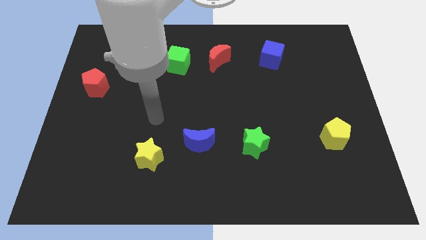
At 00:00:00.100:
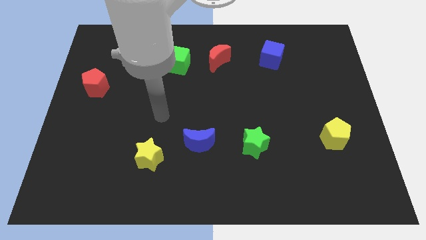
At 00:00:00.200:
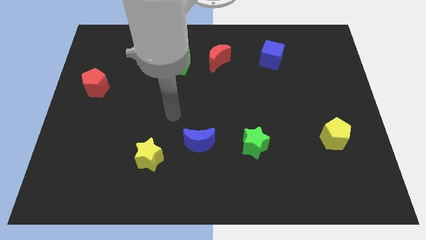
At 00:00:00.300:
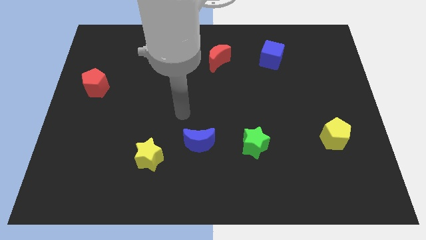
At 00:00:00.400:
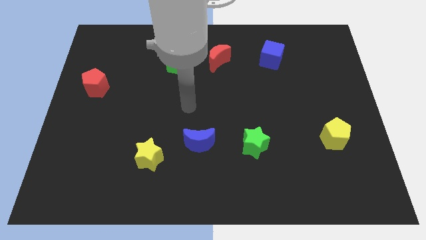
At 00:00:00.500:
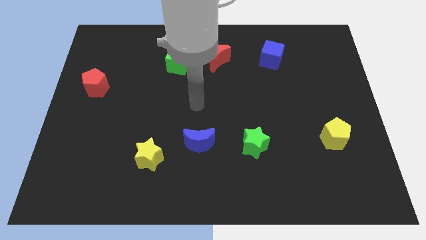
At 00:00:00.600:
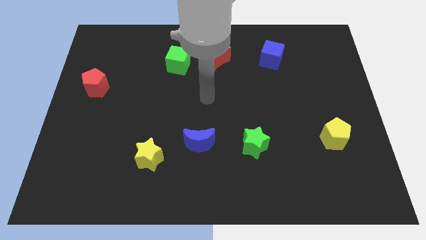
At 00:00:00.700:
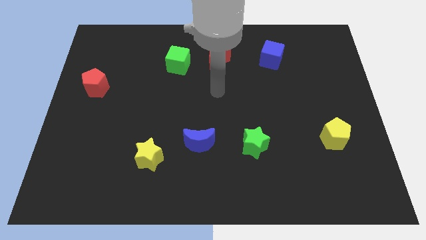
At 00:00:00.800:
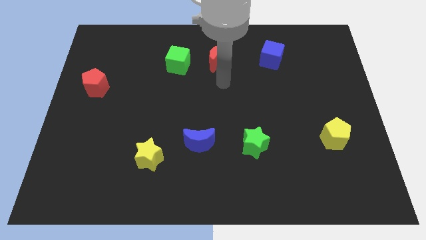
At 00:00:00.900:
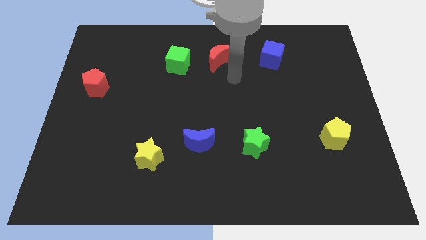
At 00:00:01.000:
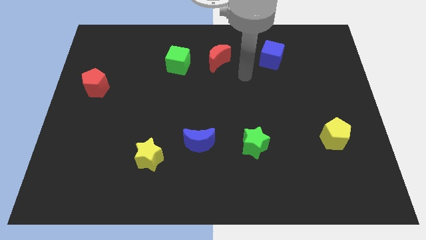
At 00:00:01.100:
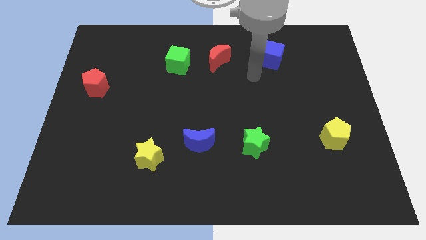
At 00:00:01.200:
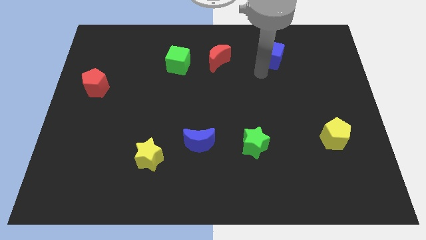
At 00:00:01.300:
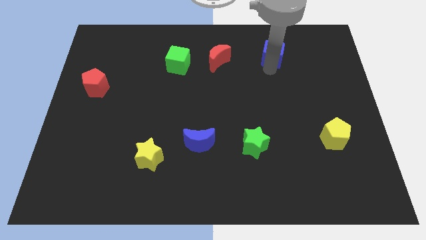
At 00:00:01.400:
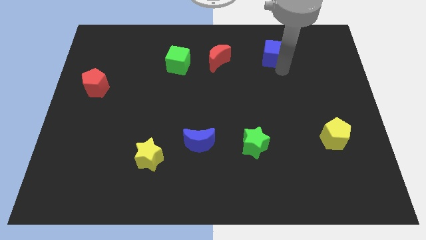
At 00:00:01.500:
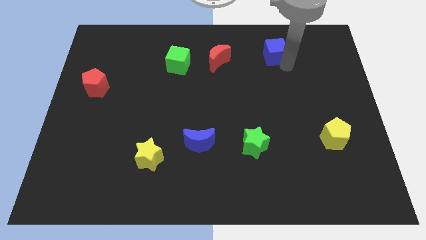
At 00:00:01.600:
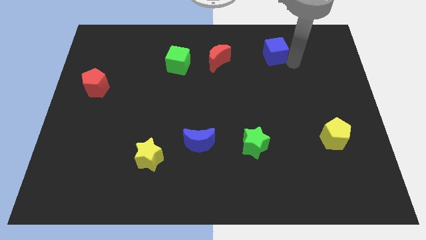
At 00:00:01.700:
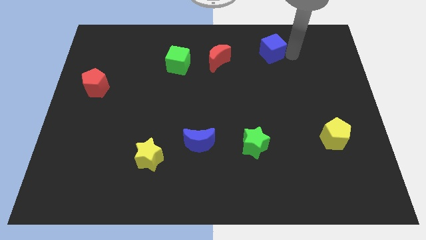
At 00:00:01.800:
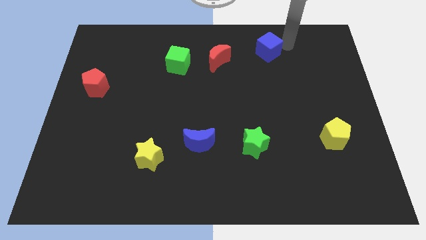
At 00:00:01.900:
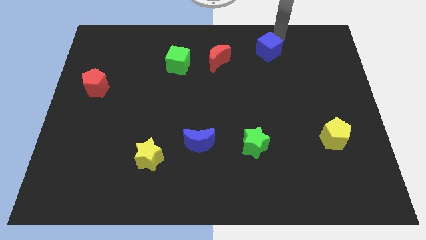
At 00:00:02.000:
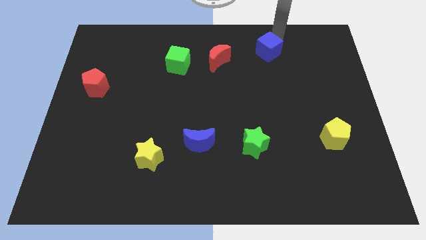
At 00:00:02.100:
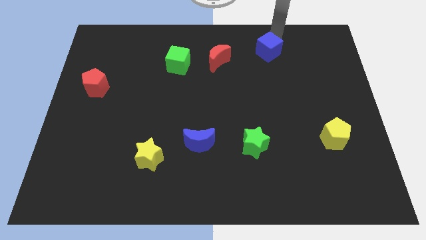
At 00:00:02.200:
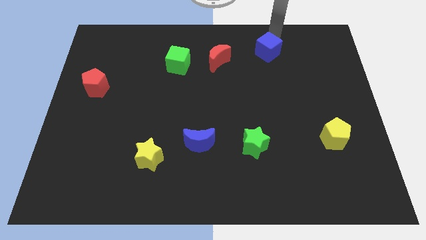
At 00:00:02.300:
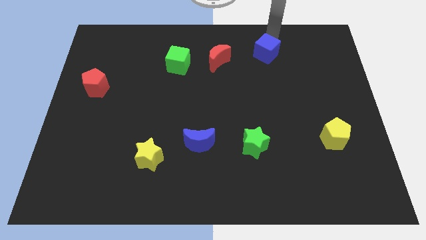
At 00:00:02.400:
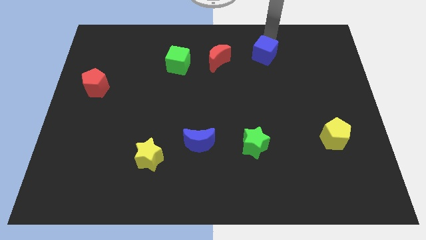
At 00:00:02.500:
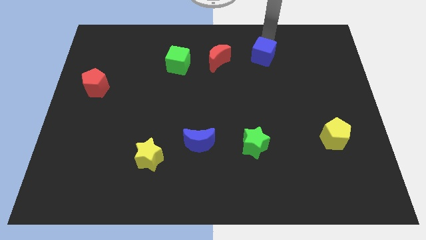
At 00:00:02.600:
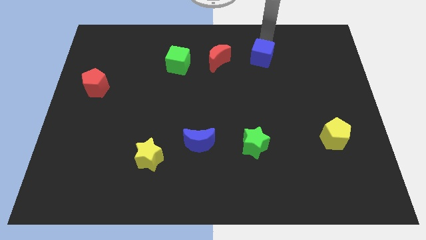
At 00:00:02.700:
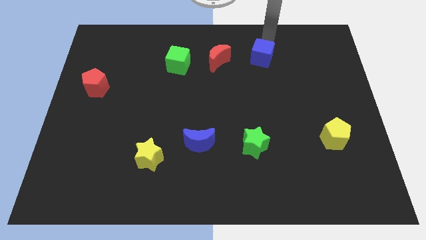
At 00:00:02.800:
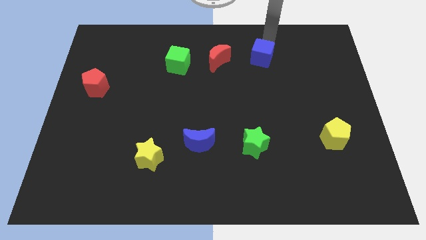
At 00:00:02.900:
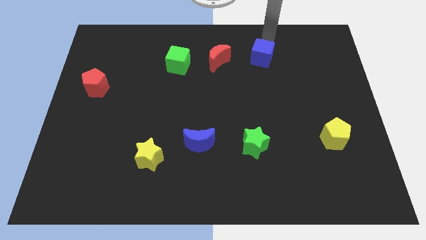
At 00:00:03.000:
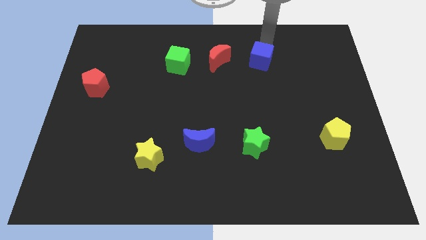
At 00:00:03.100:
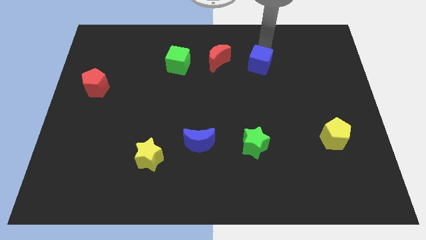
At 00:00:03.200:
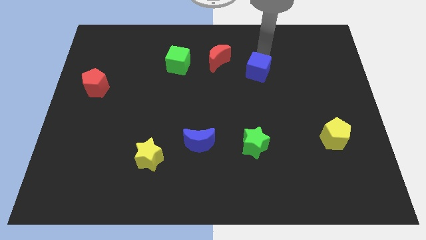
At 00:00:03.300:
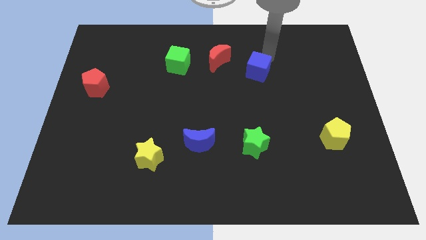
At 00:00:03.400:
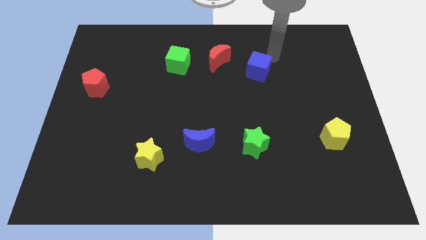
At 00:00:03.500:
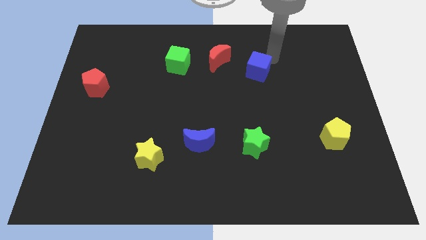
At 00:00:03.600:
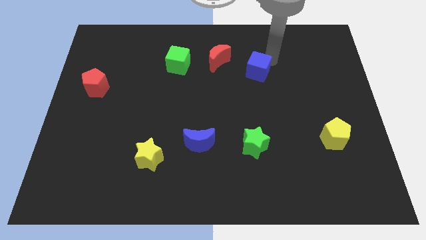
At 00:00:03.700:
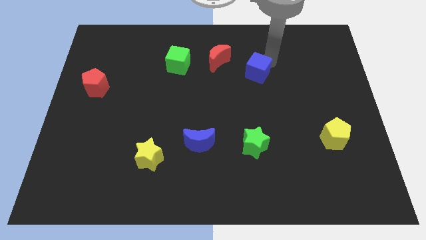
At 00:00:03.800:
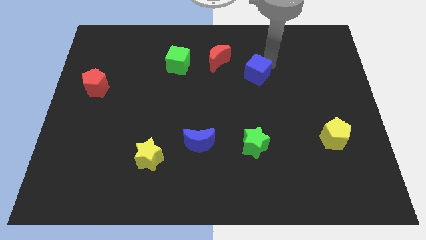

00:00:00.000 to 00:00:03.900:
slightly slide the blue cube down and left

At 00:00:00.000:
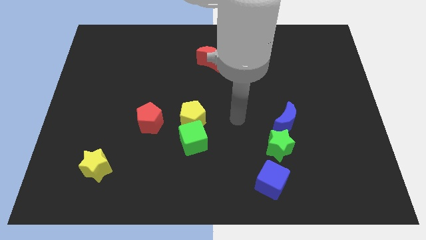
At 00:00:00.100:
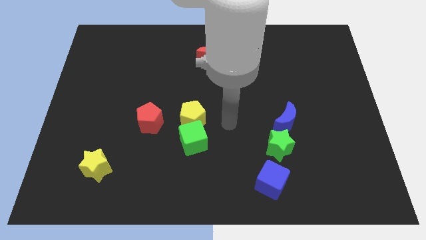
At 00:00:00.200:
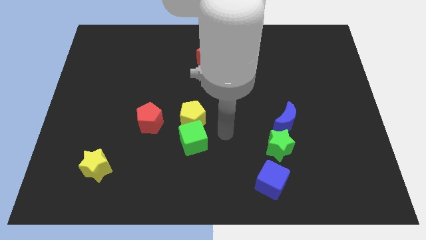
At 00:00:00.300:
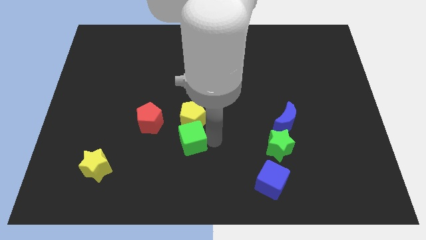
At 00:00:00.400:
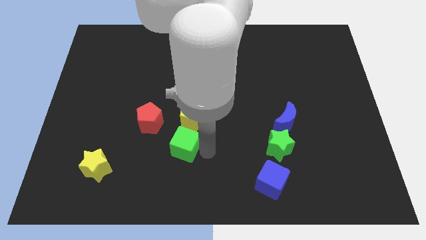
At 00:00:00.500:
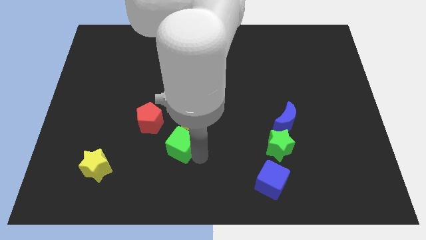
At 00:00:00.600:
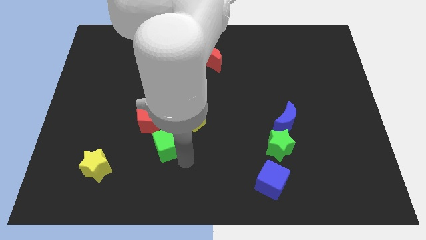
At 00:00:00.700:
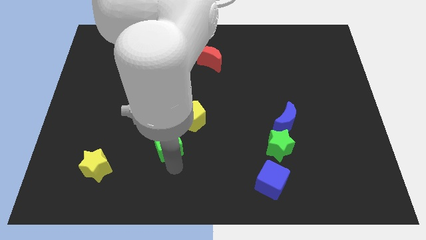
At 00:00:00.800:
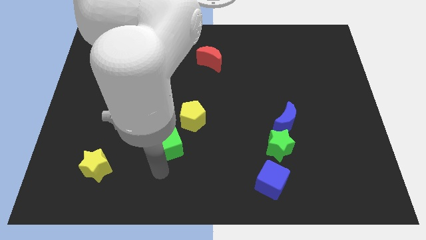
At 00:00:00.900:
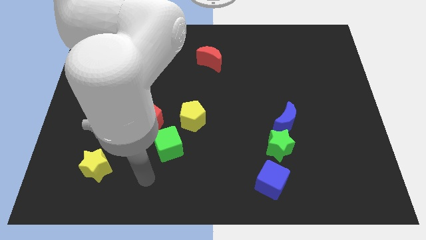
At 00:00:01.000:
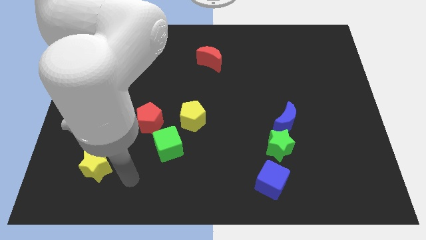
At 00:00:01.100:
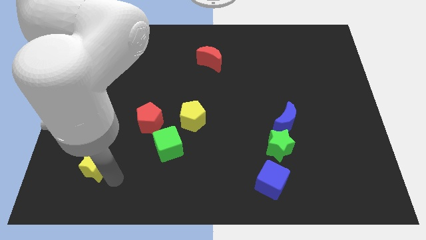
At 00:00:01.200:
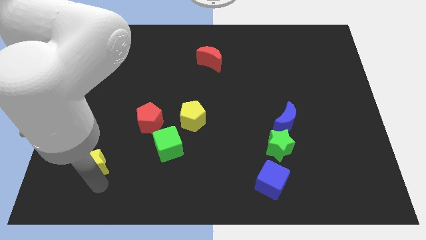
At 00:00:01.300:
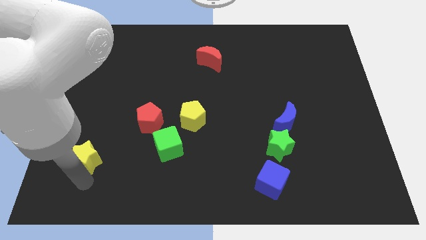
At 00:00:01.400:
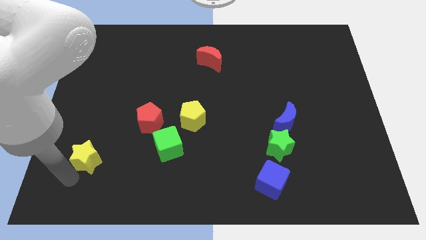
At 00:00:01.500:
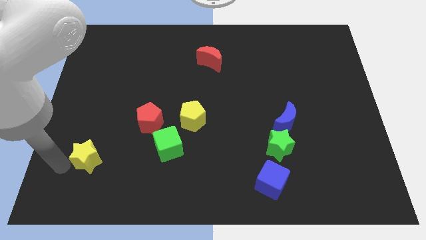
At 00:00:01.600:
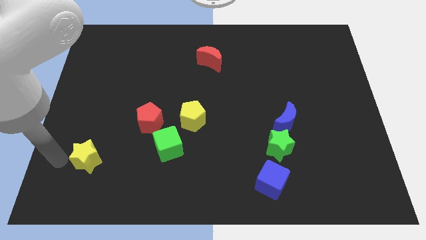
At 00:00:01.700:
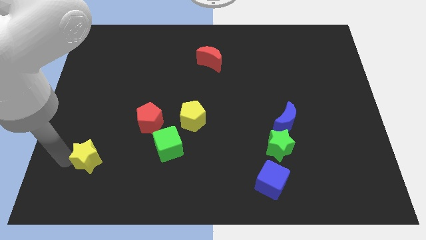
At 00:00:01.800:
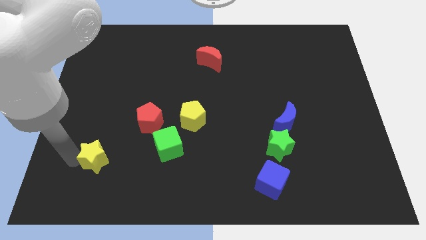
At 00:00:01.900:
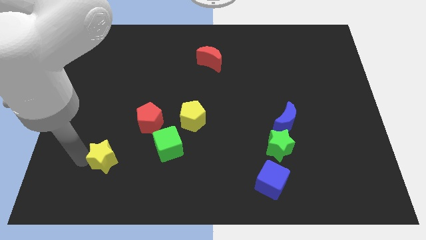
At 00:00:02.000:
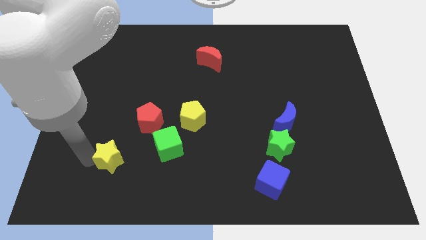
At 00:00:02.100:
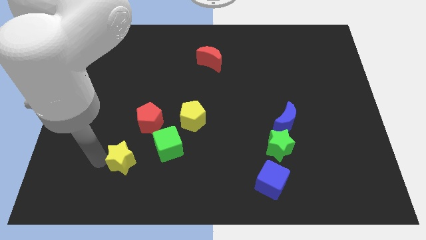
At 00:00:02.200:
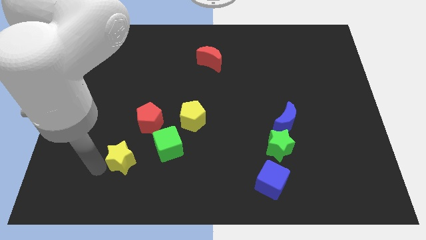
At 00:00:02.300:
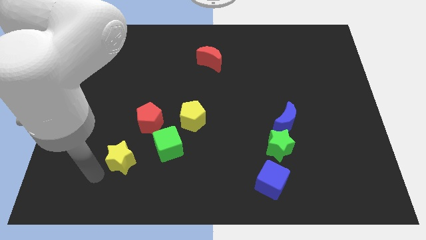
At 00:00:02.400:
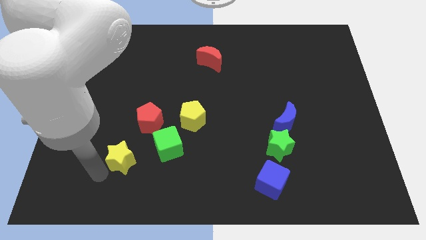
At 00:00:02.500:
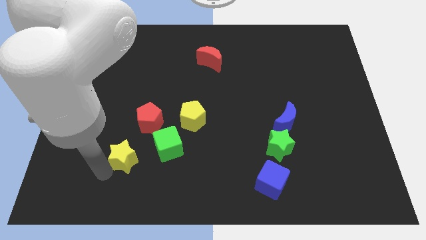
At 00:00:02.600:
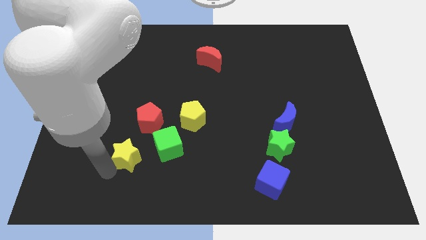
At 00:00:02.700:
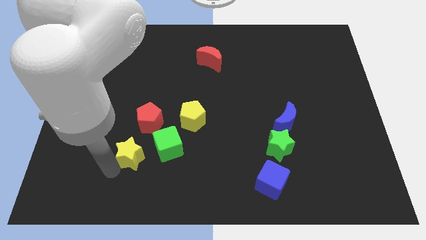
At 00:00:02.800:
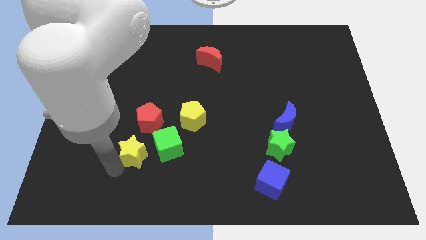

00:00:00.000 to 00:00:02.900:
push the yellow star upwards and to the right a little bit

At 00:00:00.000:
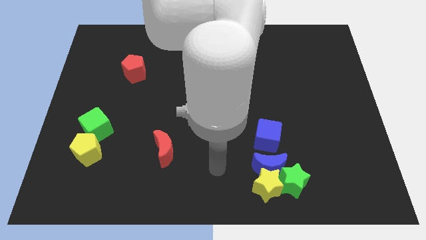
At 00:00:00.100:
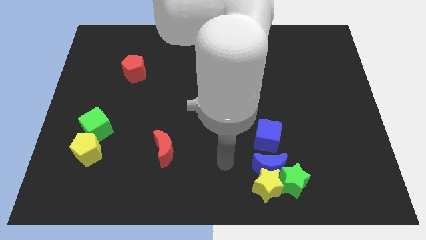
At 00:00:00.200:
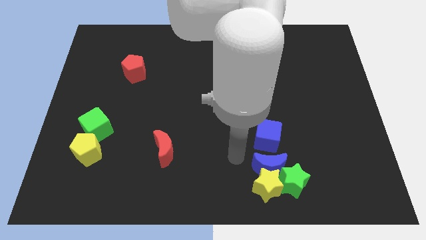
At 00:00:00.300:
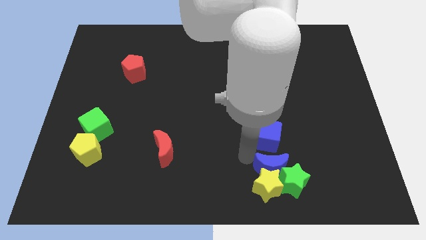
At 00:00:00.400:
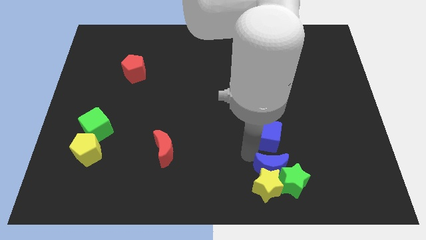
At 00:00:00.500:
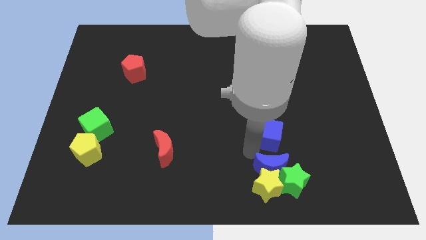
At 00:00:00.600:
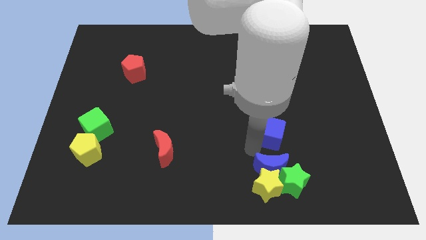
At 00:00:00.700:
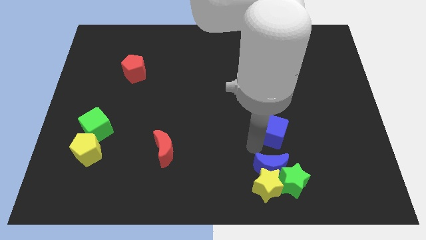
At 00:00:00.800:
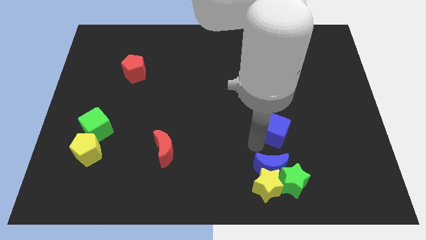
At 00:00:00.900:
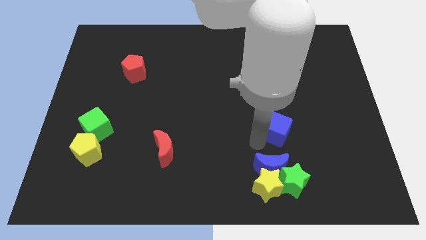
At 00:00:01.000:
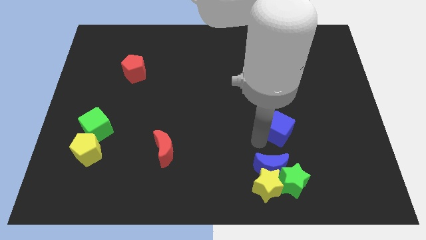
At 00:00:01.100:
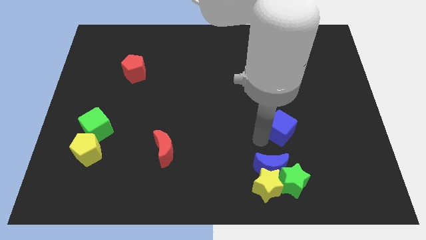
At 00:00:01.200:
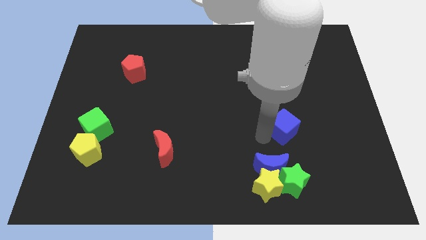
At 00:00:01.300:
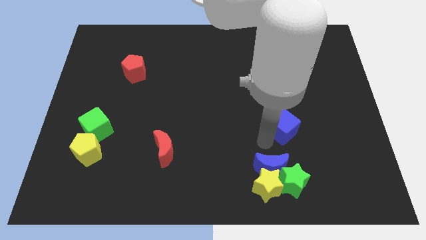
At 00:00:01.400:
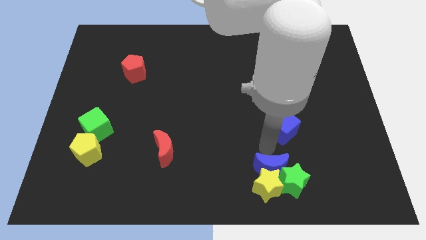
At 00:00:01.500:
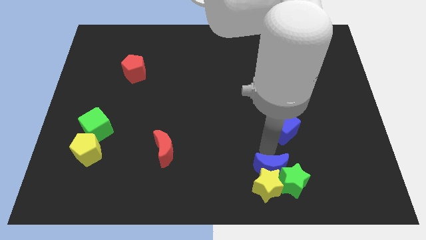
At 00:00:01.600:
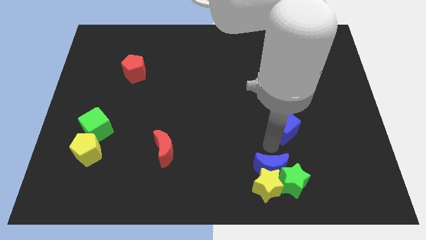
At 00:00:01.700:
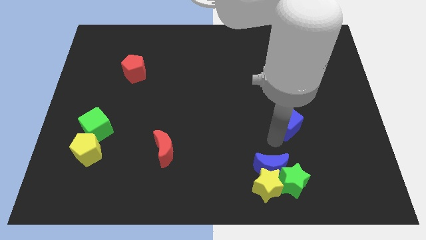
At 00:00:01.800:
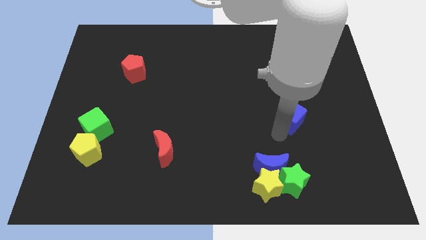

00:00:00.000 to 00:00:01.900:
slightly move the blue cube up and then right
